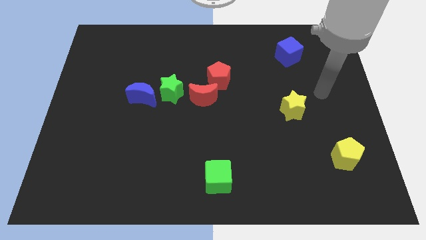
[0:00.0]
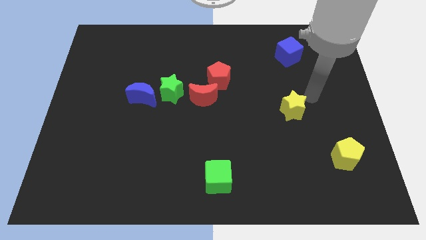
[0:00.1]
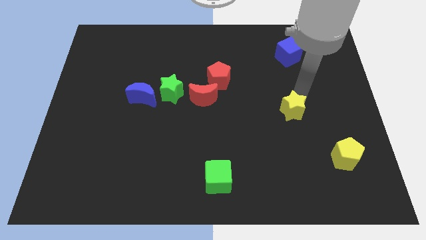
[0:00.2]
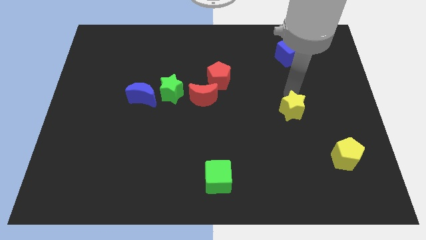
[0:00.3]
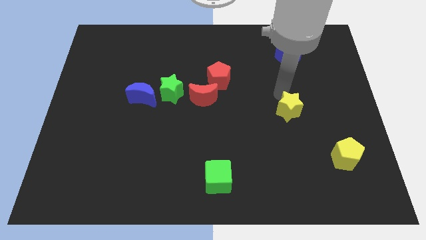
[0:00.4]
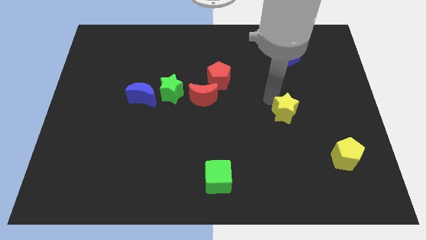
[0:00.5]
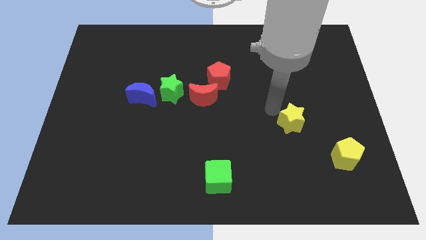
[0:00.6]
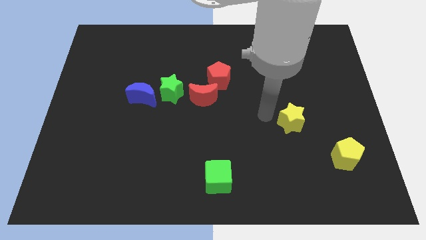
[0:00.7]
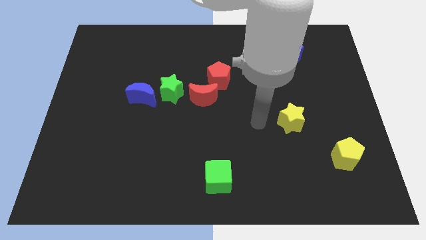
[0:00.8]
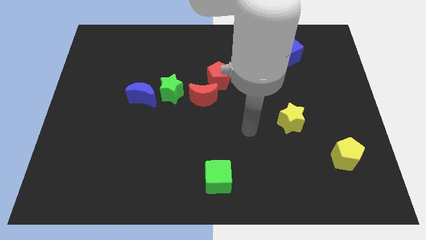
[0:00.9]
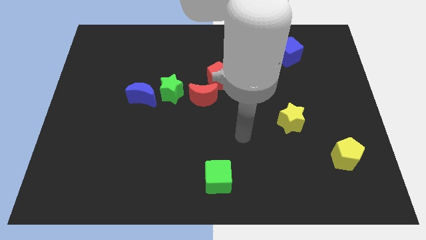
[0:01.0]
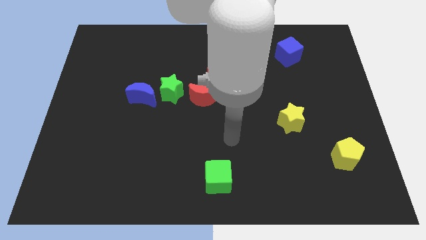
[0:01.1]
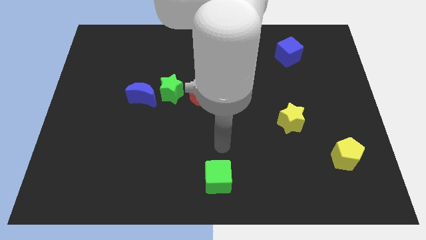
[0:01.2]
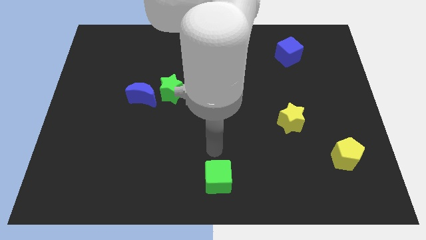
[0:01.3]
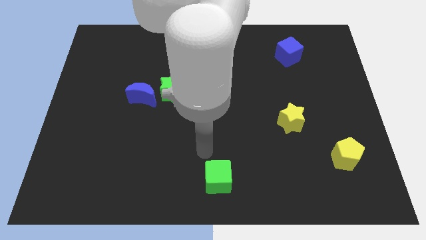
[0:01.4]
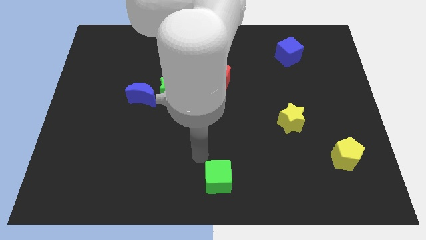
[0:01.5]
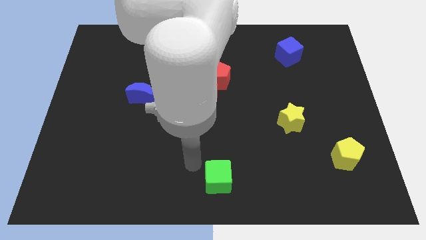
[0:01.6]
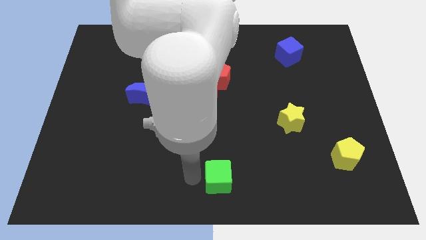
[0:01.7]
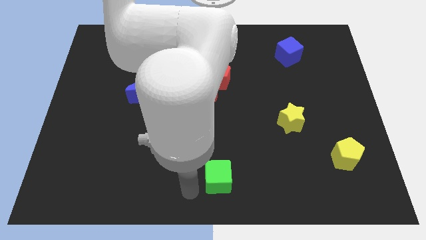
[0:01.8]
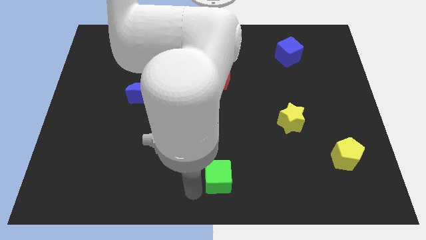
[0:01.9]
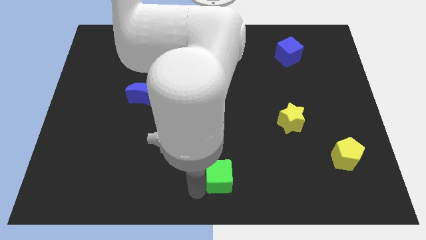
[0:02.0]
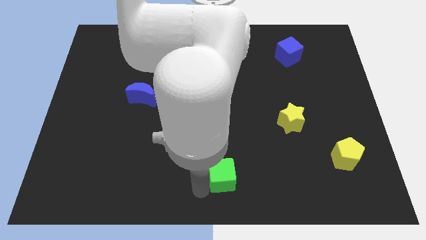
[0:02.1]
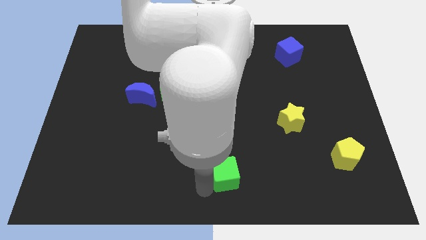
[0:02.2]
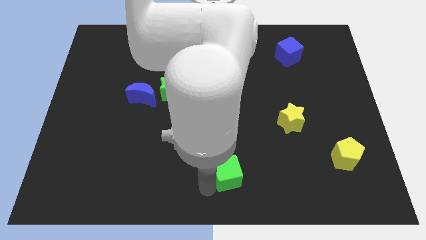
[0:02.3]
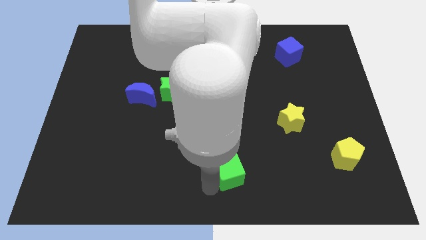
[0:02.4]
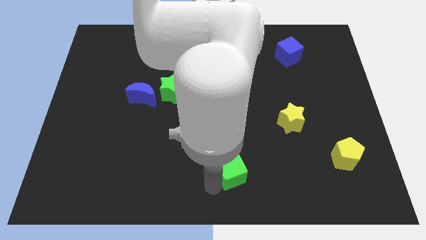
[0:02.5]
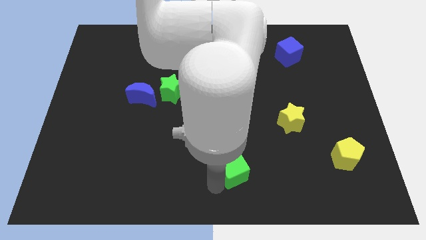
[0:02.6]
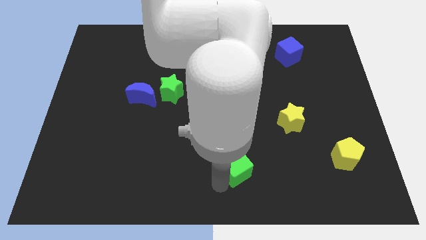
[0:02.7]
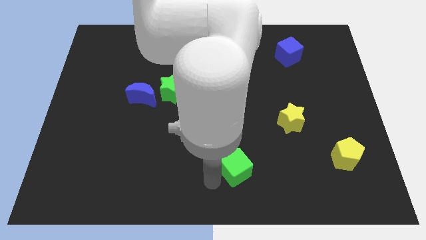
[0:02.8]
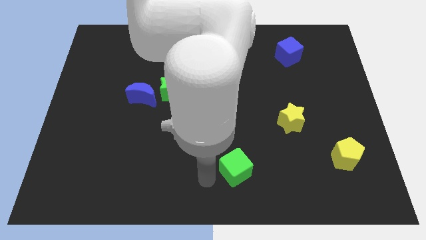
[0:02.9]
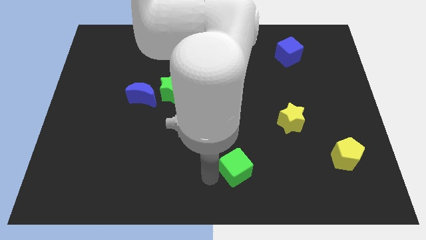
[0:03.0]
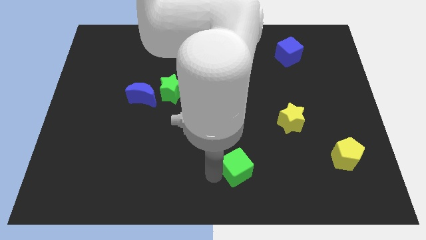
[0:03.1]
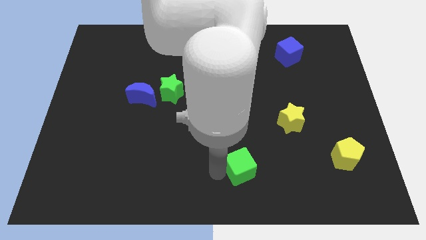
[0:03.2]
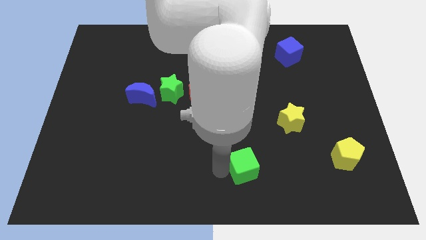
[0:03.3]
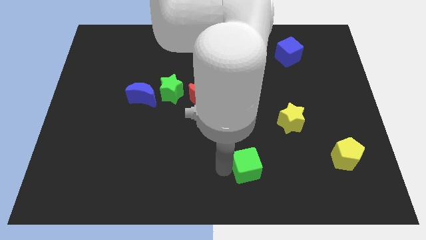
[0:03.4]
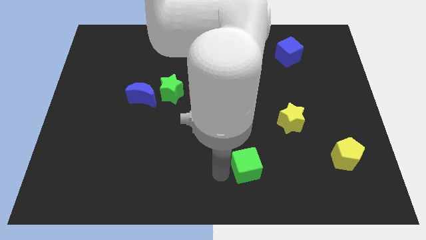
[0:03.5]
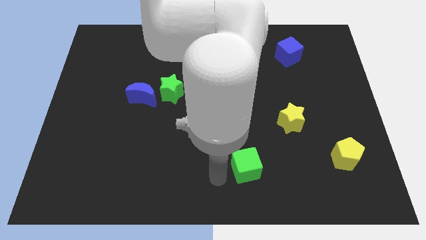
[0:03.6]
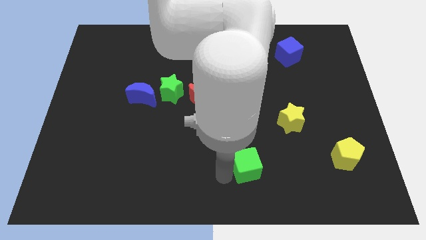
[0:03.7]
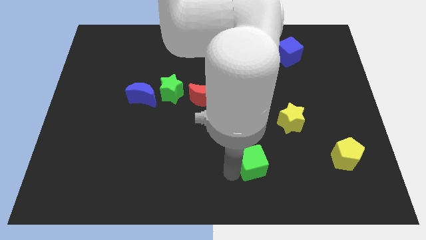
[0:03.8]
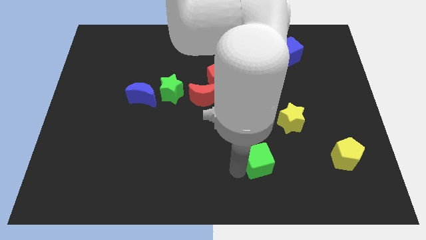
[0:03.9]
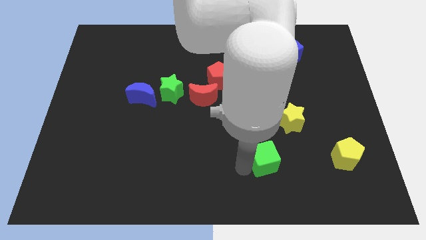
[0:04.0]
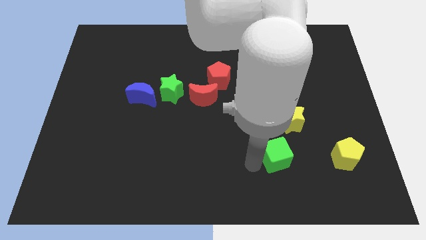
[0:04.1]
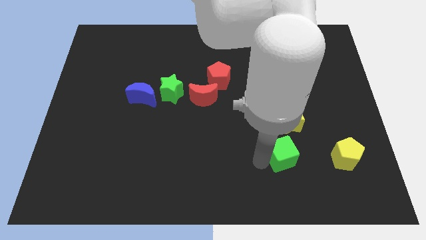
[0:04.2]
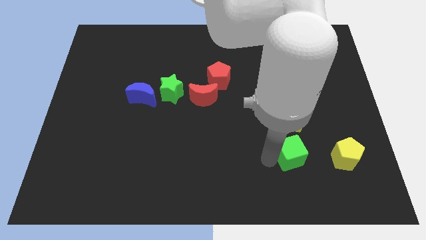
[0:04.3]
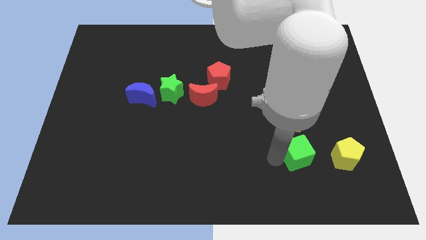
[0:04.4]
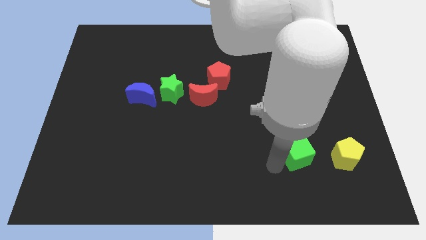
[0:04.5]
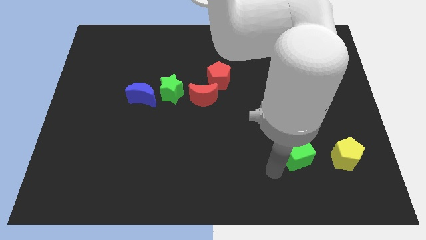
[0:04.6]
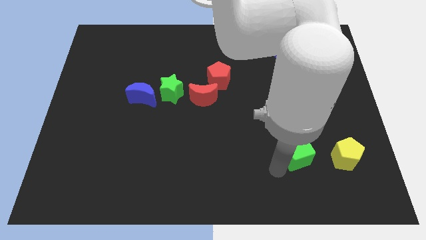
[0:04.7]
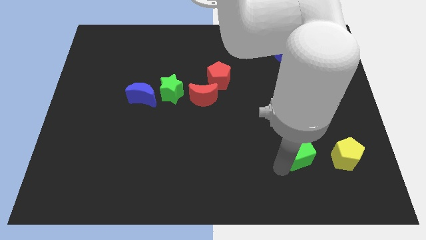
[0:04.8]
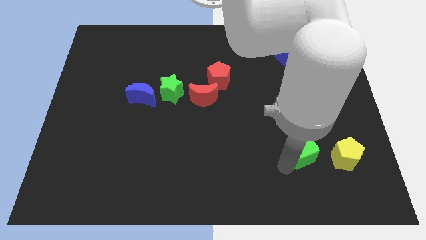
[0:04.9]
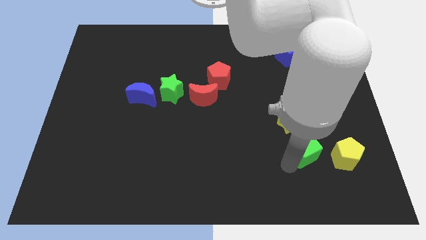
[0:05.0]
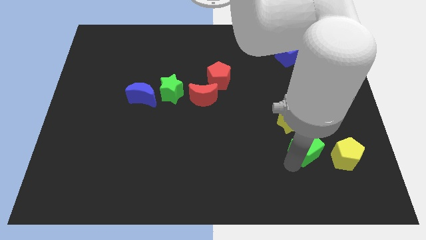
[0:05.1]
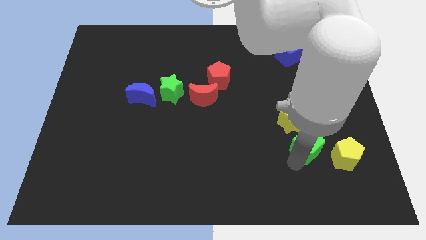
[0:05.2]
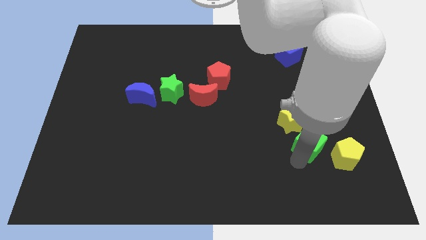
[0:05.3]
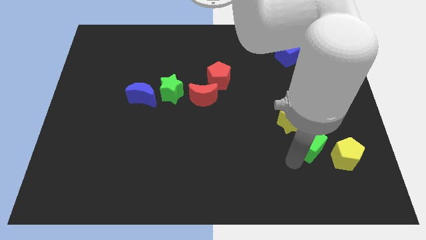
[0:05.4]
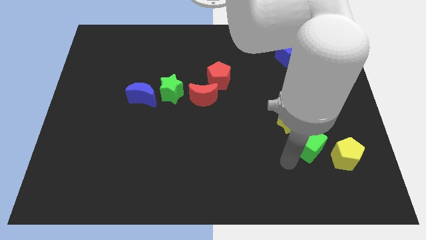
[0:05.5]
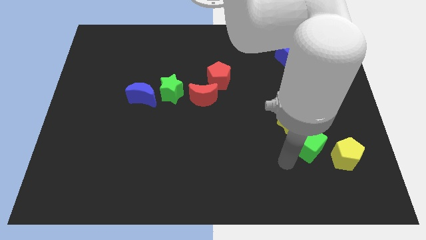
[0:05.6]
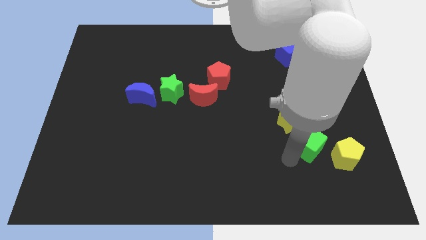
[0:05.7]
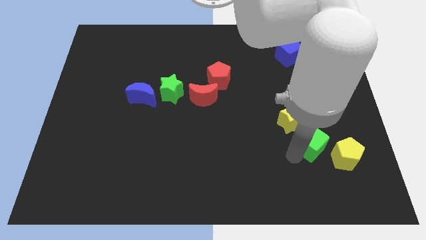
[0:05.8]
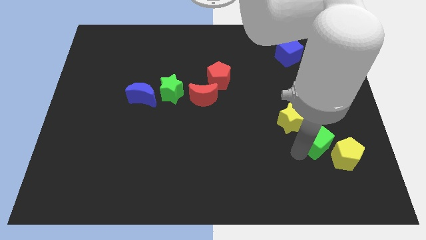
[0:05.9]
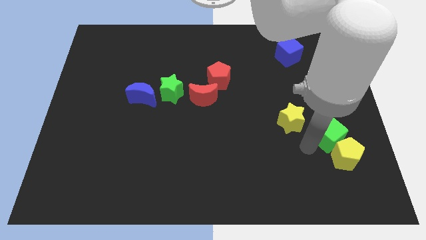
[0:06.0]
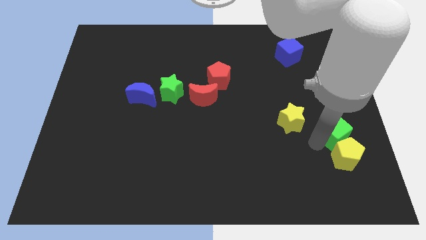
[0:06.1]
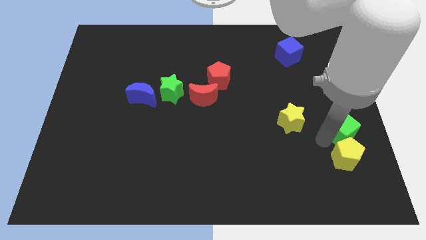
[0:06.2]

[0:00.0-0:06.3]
push the green cube to the right side
